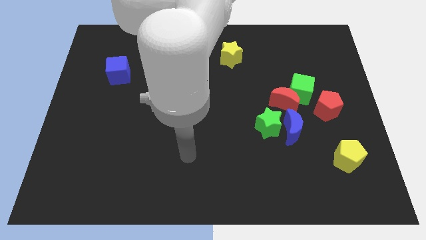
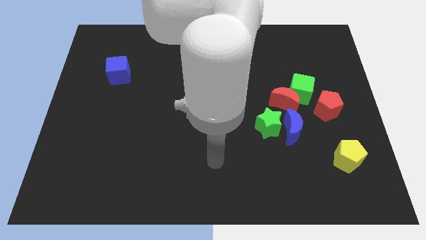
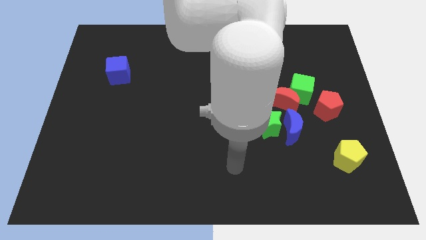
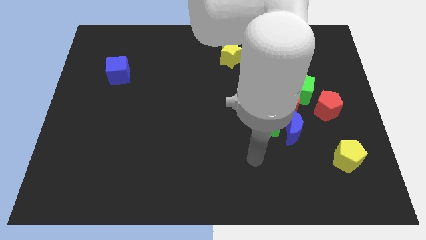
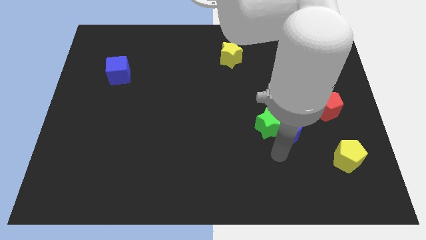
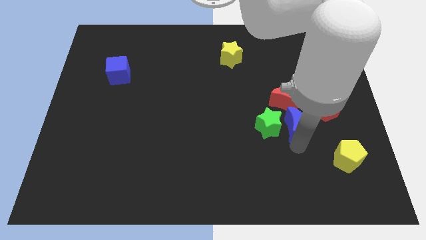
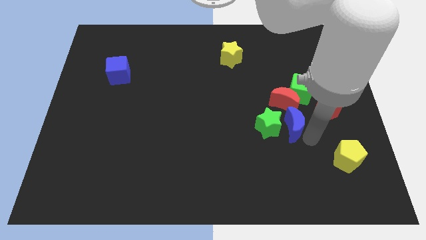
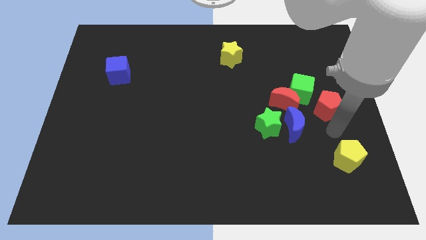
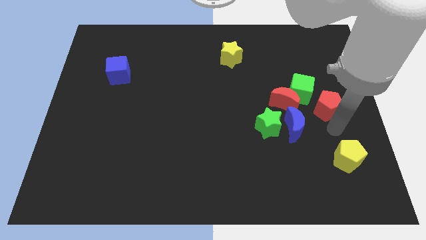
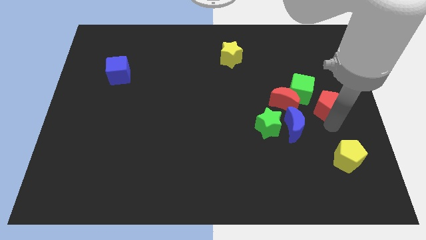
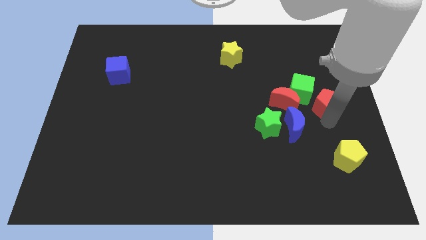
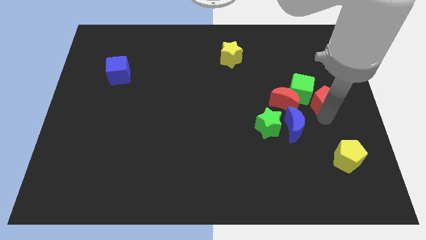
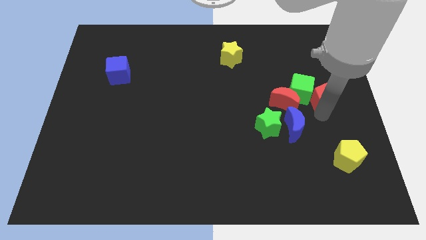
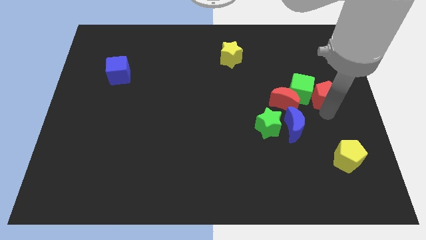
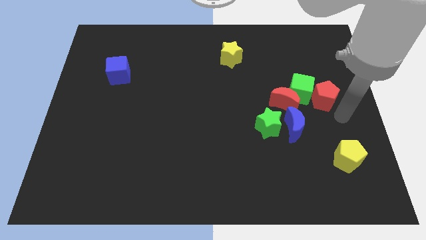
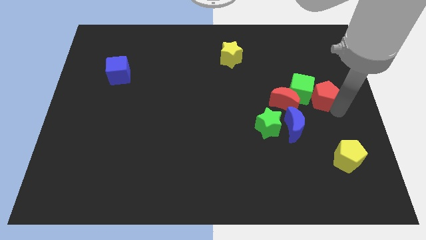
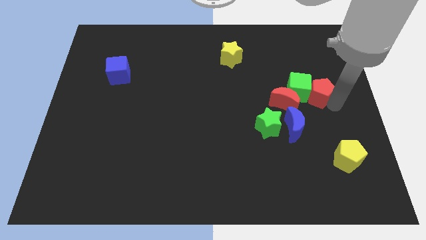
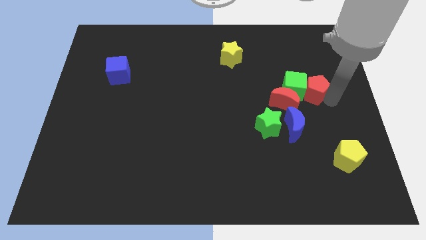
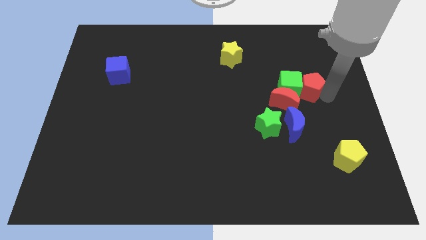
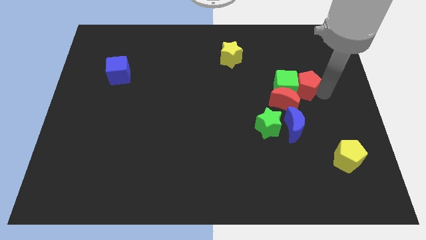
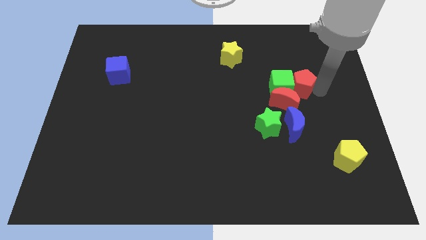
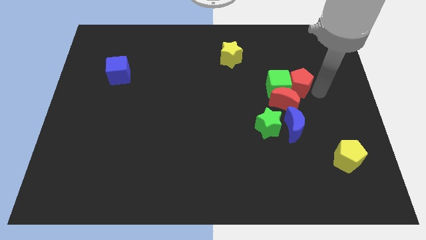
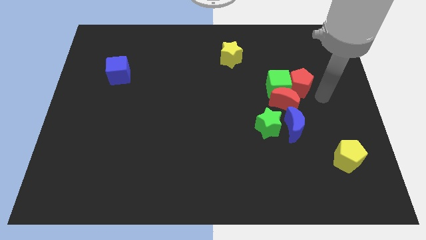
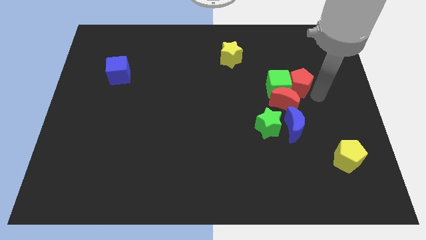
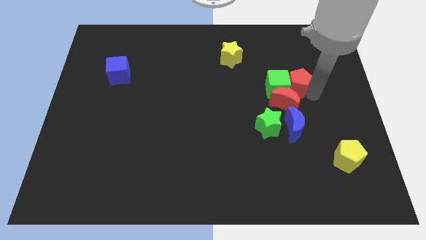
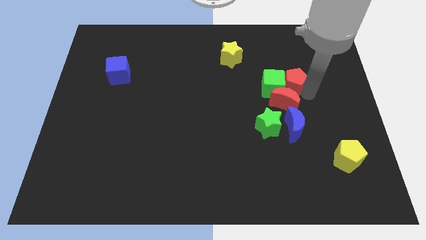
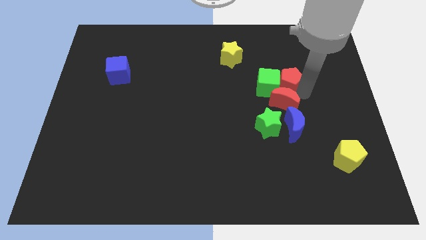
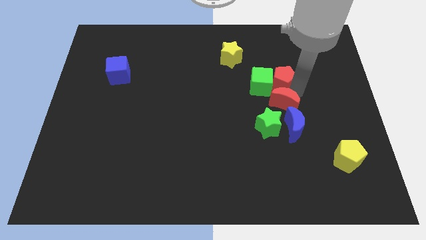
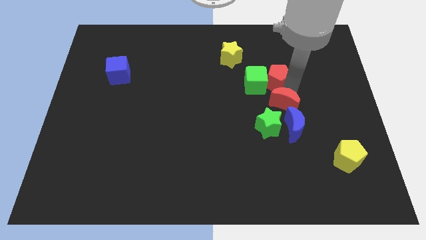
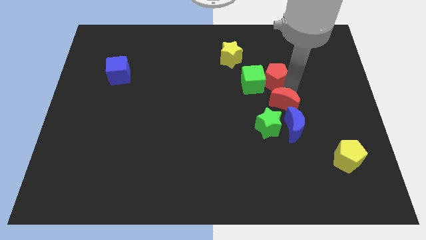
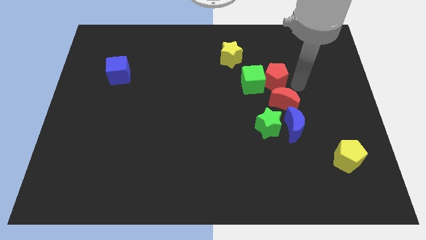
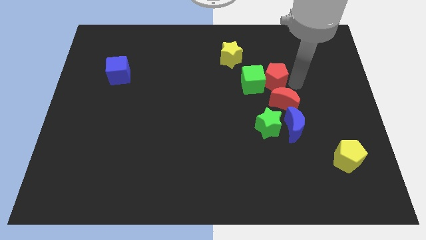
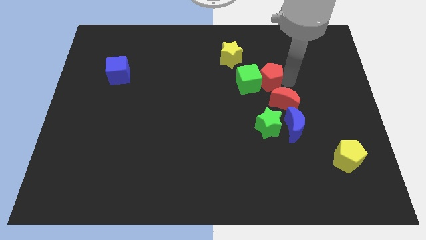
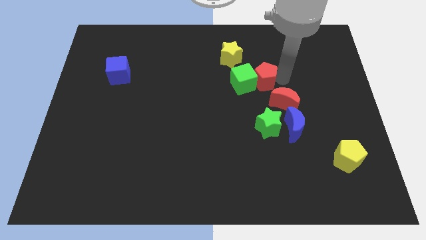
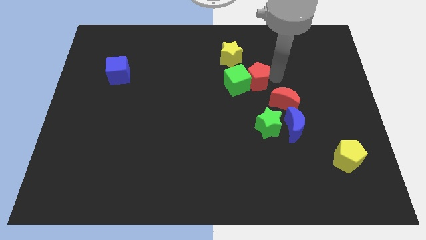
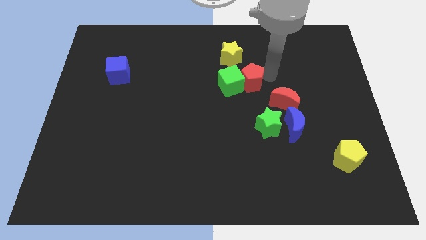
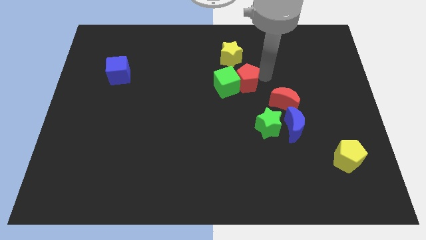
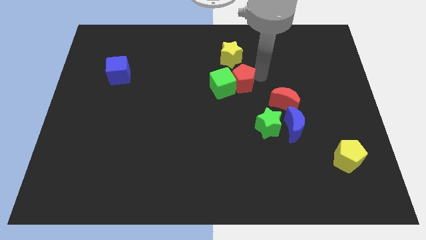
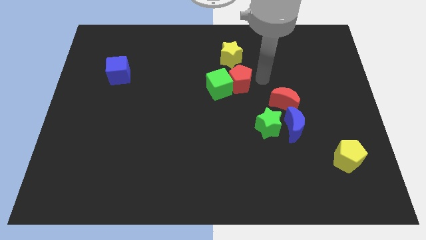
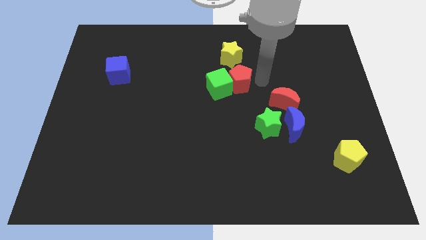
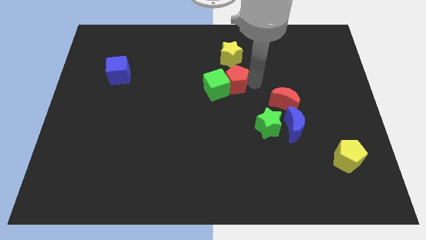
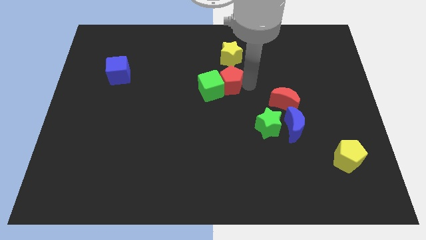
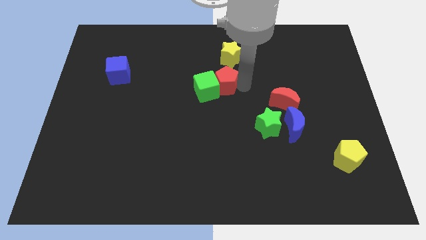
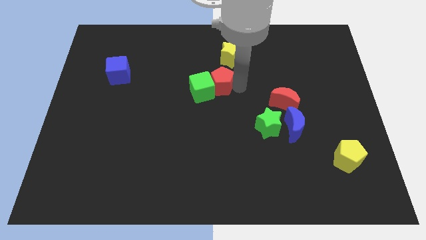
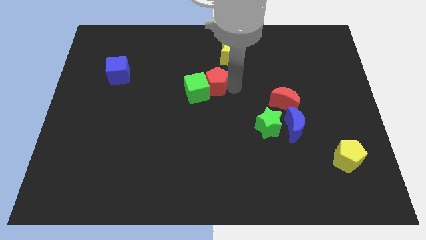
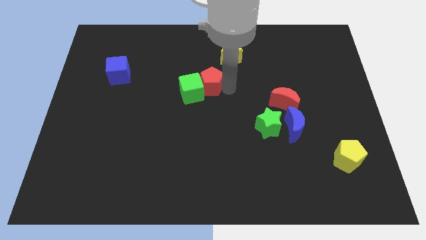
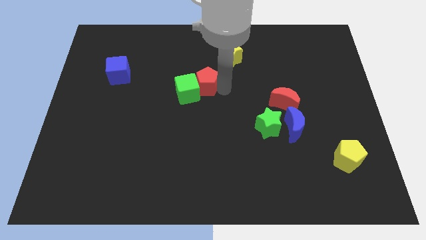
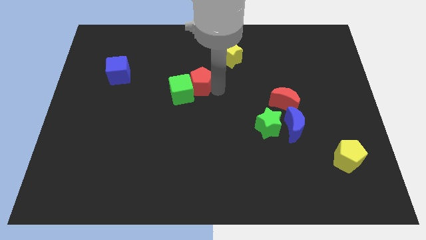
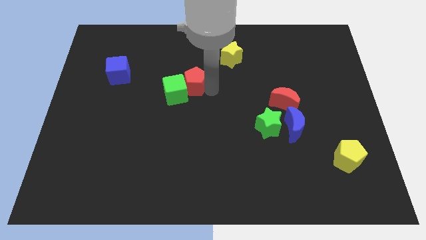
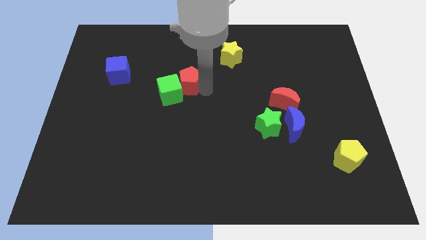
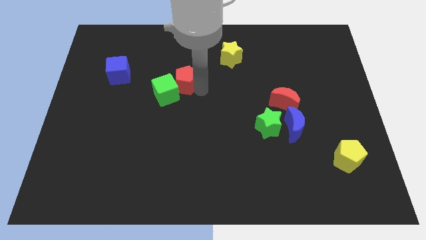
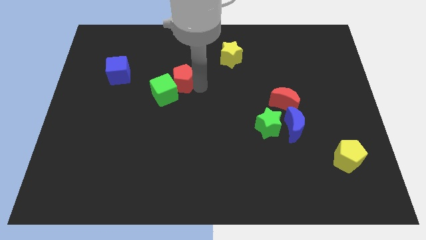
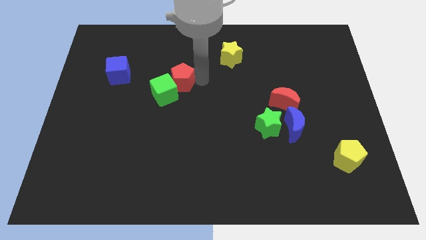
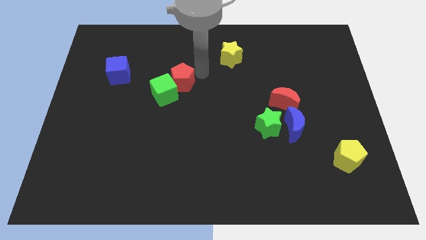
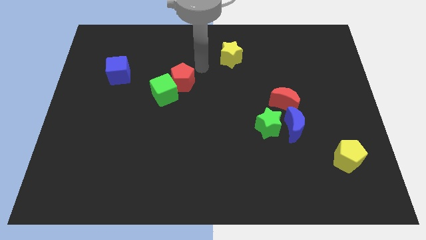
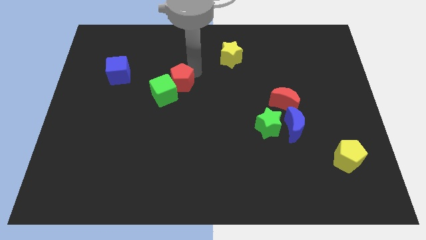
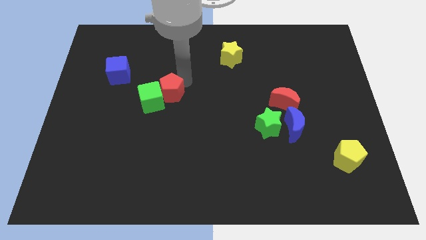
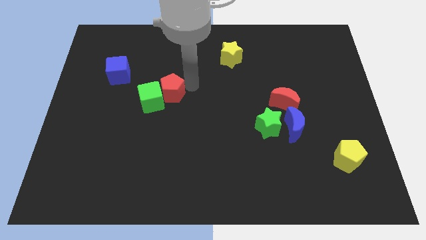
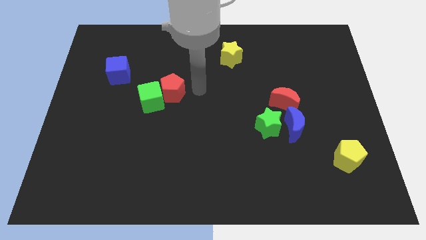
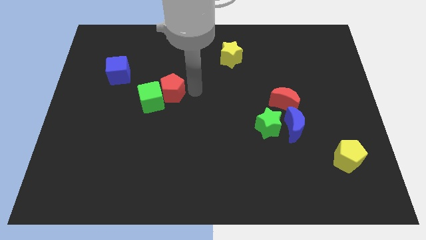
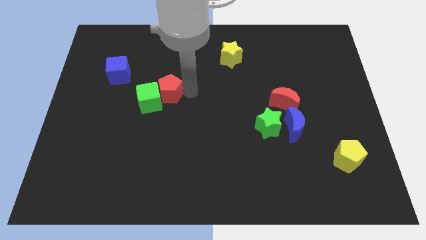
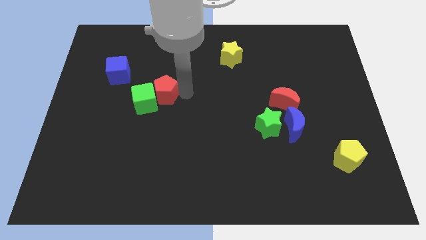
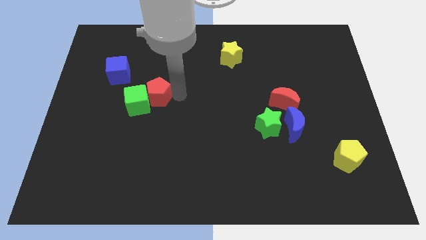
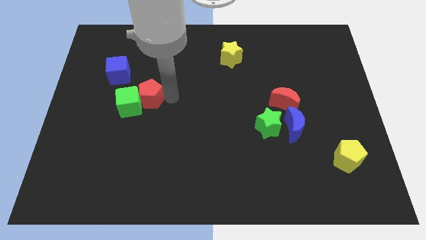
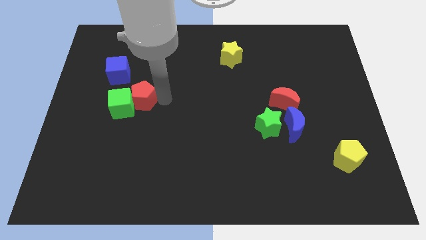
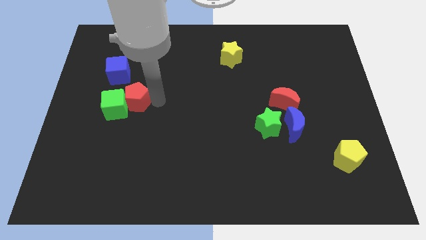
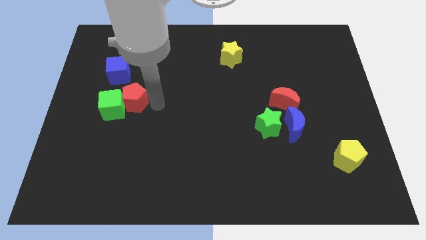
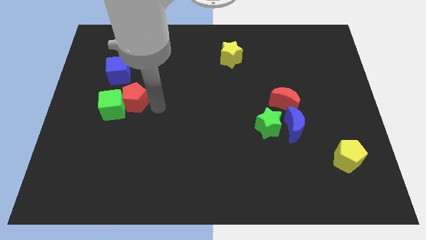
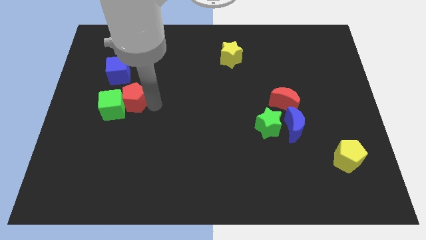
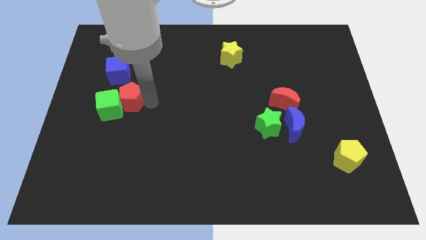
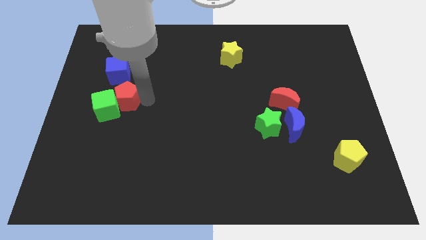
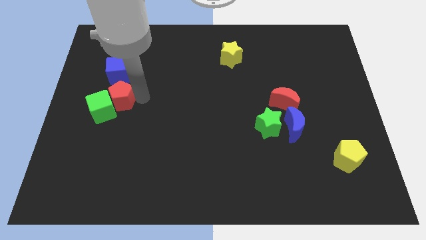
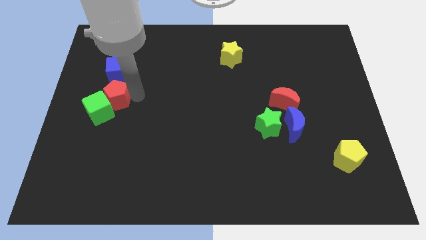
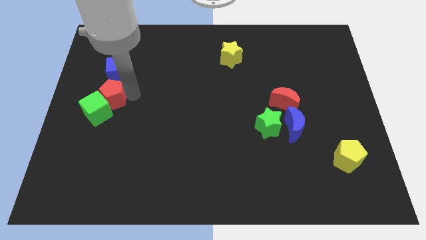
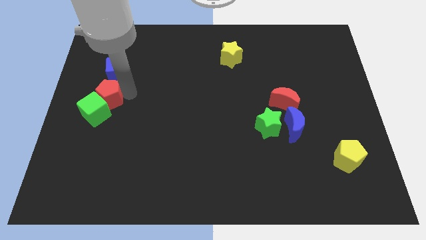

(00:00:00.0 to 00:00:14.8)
put the red pentagon to the left side of the board
